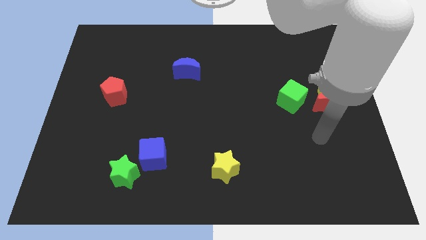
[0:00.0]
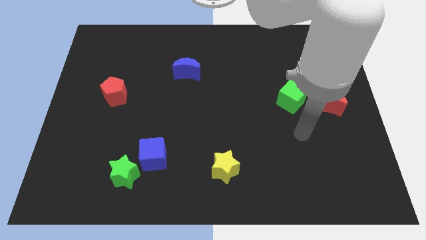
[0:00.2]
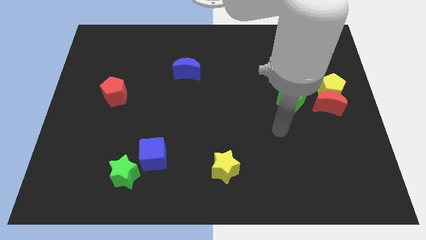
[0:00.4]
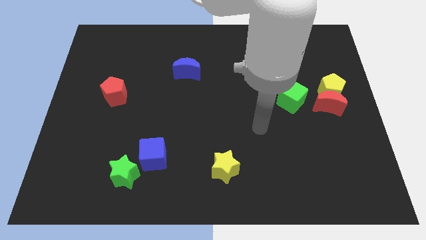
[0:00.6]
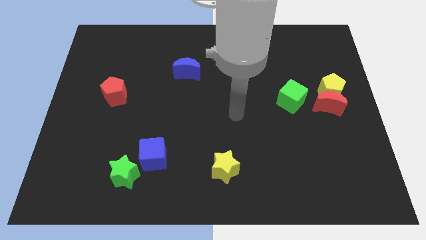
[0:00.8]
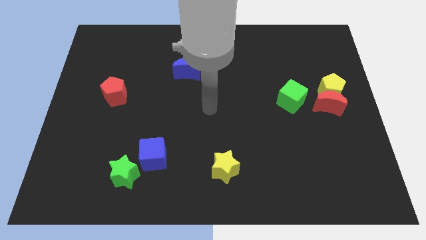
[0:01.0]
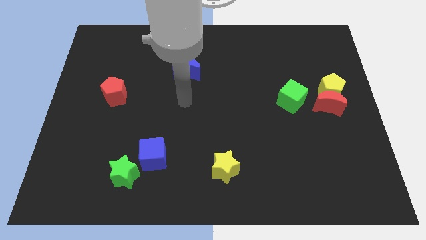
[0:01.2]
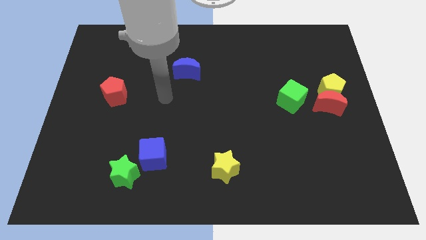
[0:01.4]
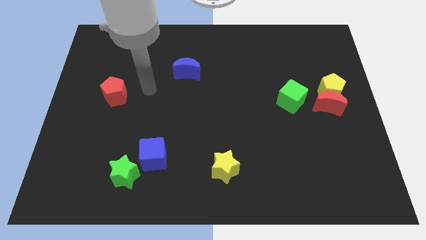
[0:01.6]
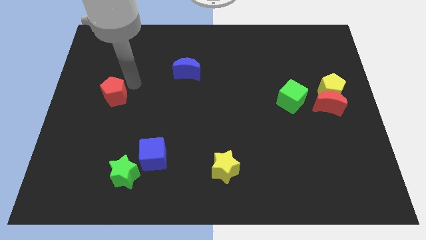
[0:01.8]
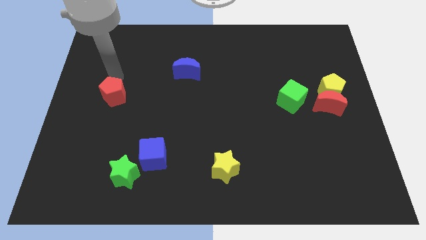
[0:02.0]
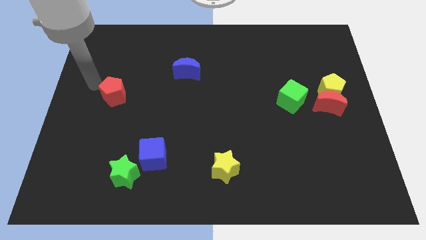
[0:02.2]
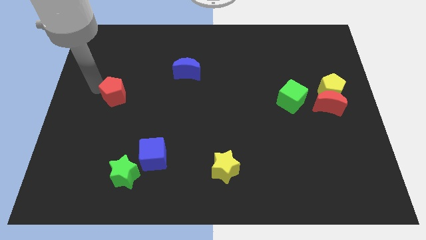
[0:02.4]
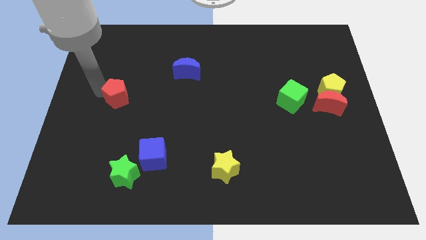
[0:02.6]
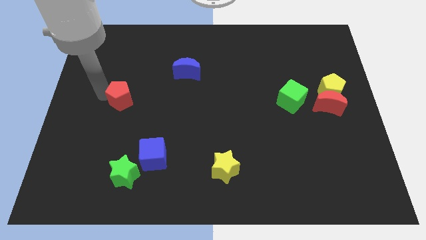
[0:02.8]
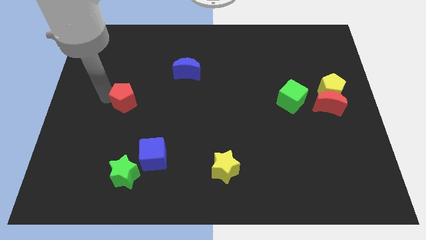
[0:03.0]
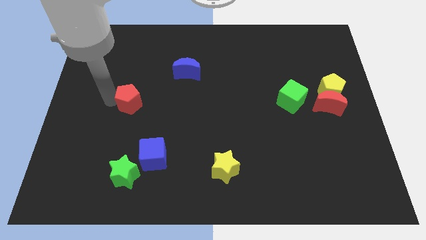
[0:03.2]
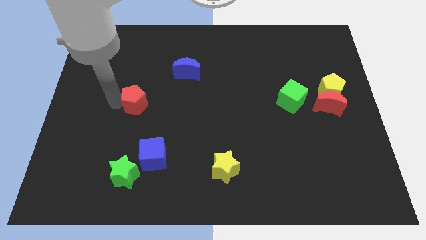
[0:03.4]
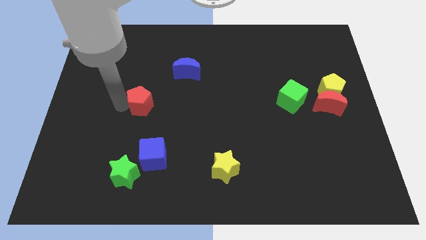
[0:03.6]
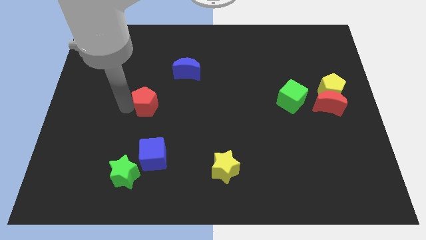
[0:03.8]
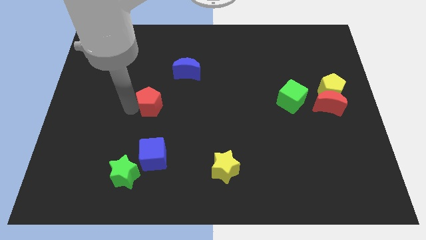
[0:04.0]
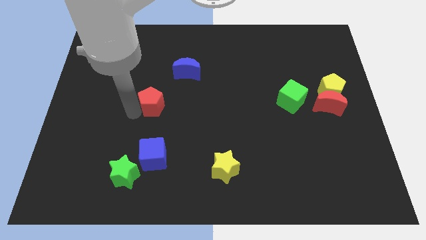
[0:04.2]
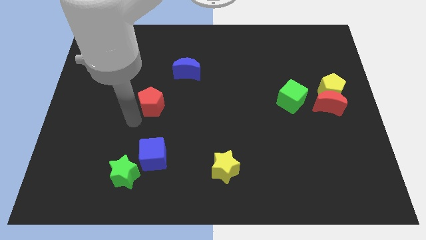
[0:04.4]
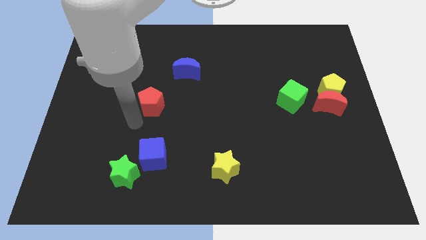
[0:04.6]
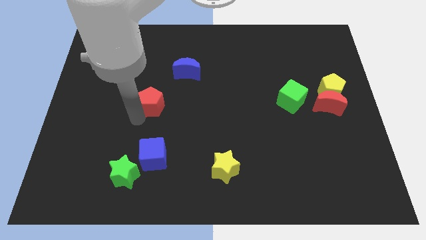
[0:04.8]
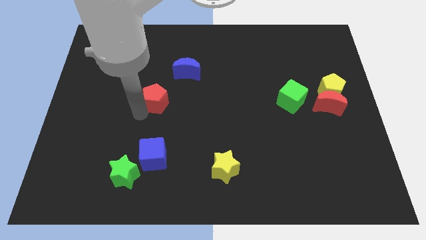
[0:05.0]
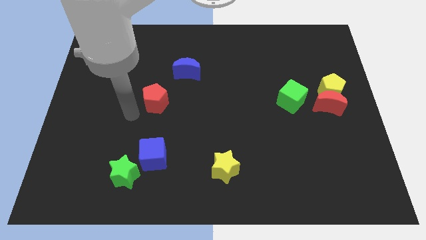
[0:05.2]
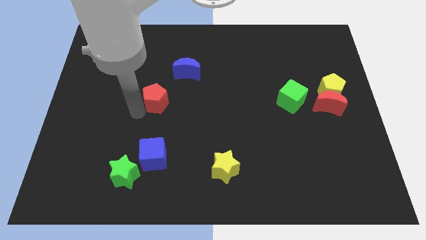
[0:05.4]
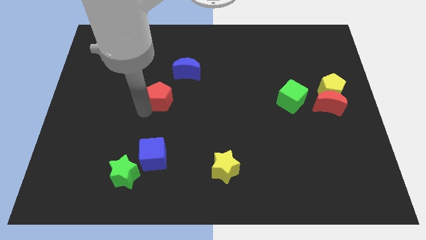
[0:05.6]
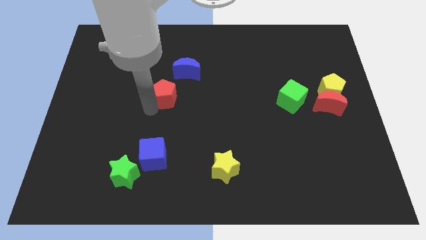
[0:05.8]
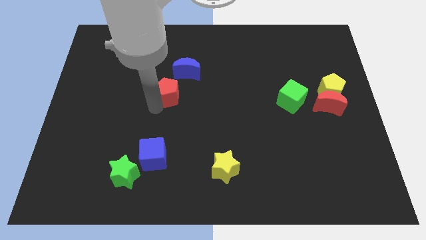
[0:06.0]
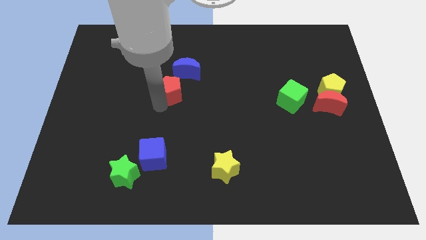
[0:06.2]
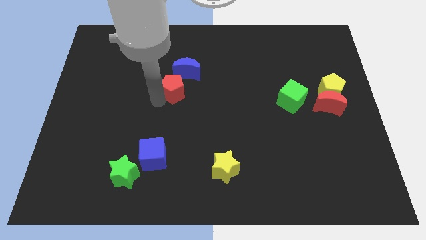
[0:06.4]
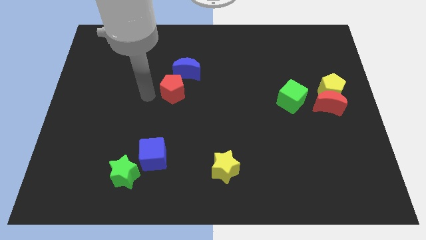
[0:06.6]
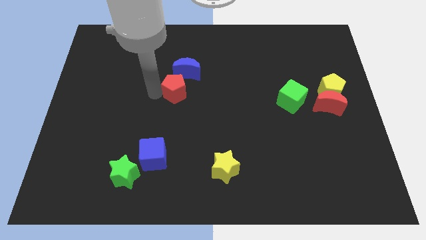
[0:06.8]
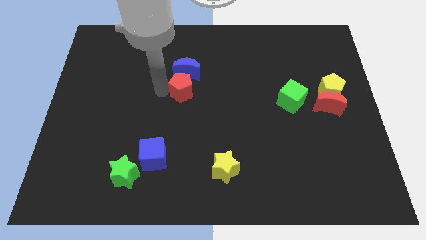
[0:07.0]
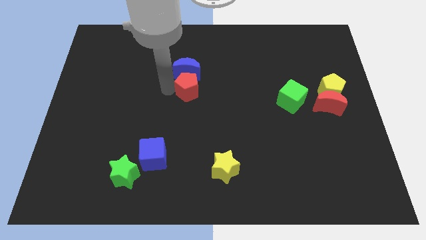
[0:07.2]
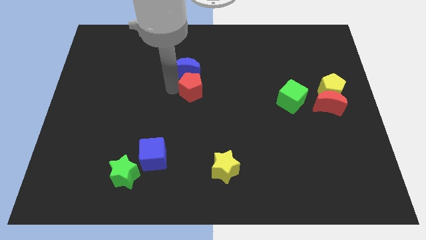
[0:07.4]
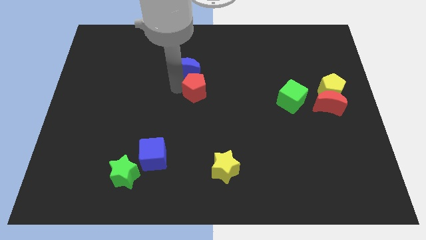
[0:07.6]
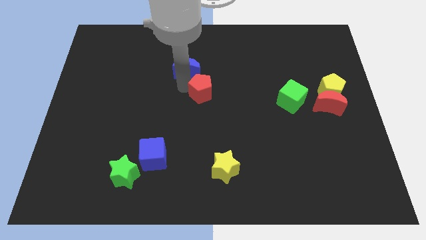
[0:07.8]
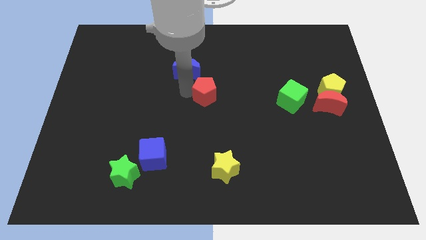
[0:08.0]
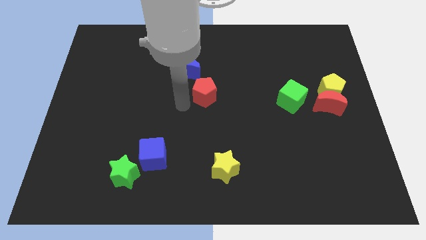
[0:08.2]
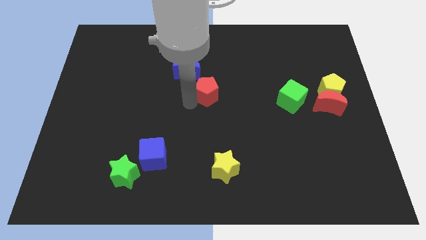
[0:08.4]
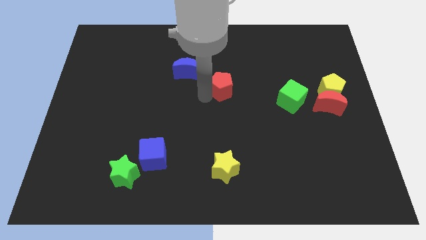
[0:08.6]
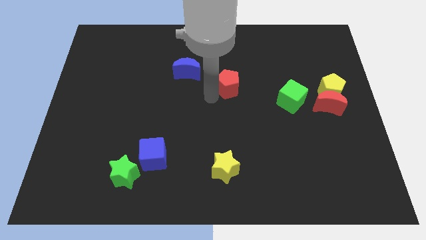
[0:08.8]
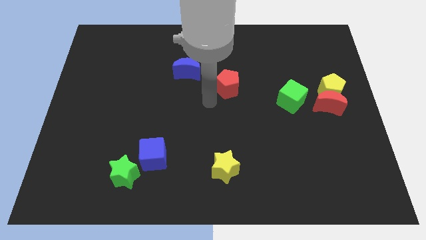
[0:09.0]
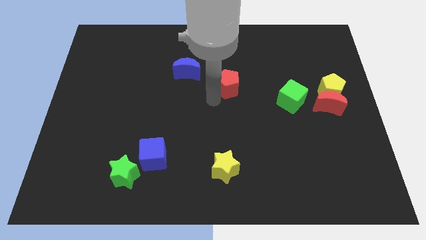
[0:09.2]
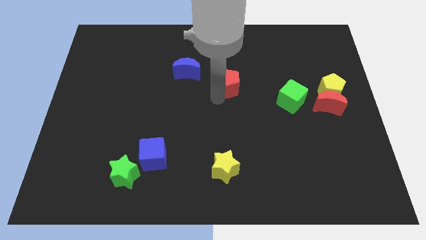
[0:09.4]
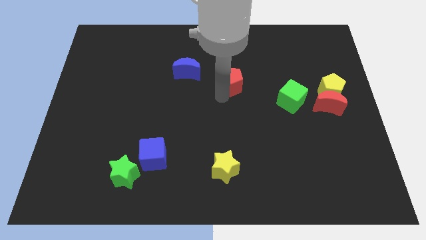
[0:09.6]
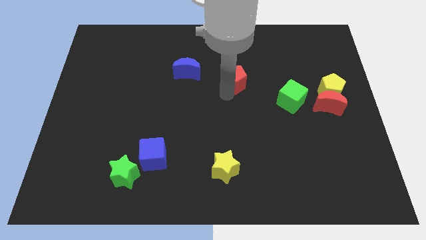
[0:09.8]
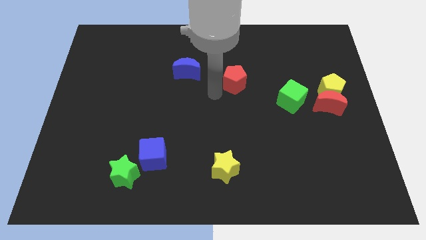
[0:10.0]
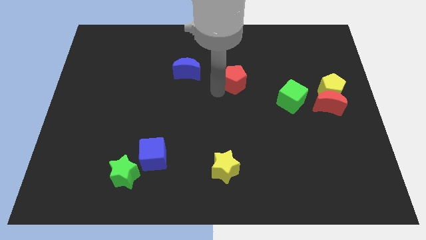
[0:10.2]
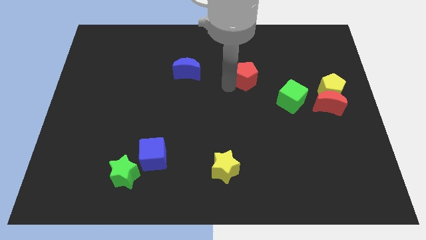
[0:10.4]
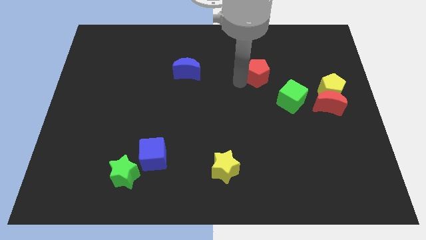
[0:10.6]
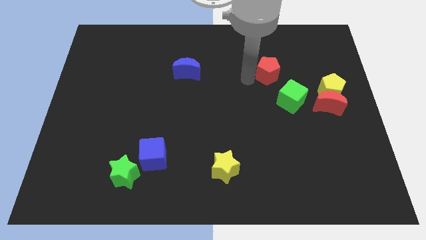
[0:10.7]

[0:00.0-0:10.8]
slide the red pentagon to the top side of the green cube

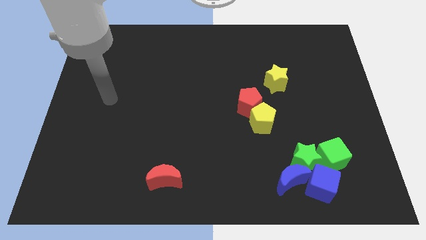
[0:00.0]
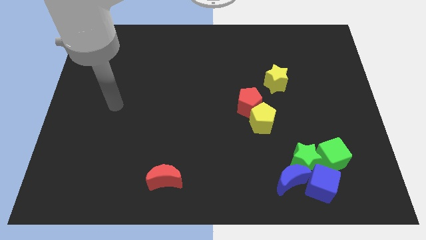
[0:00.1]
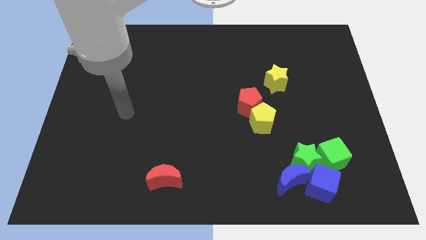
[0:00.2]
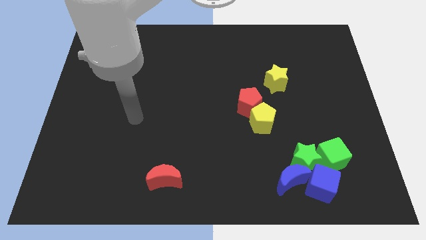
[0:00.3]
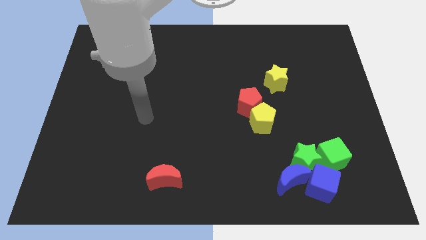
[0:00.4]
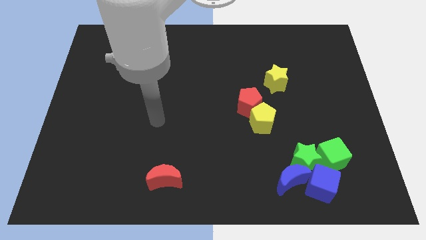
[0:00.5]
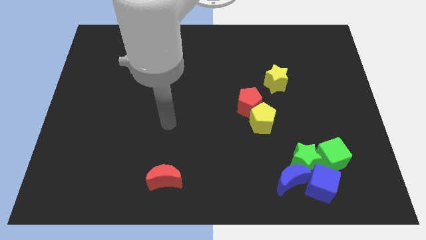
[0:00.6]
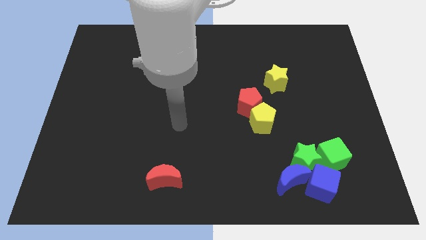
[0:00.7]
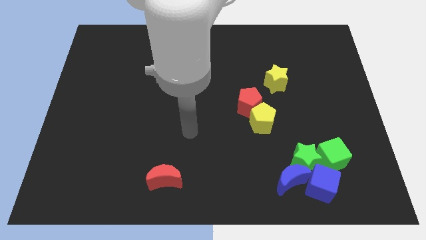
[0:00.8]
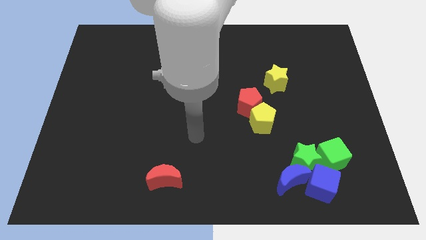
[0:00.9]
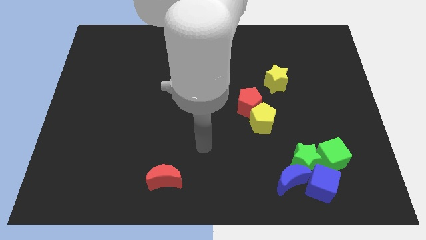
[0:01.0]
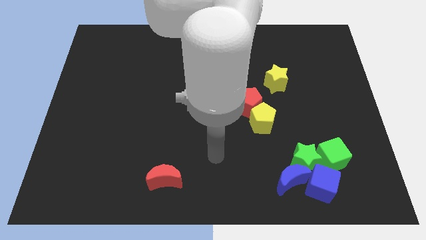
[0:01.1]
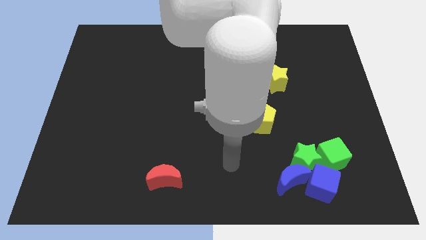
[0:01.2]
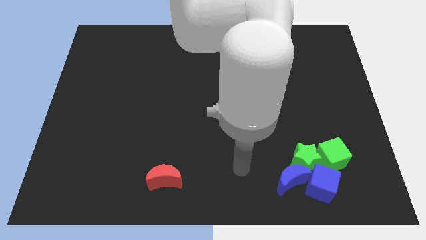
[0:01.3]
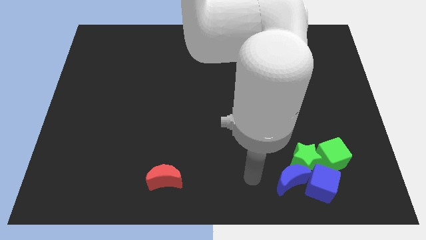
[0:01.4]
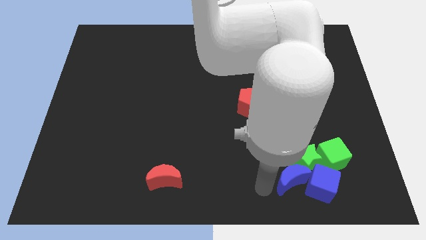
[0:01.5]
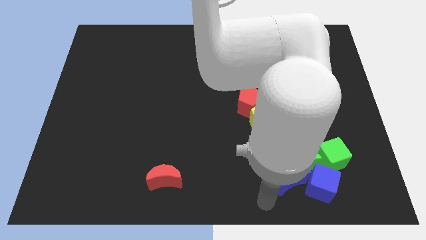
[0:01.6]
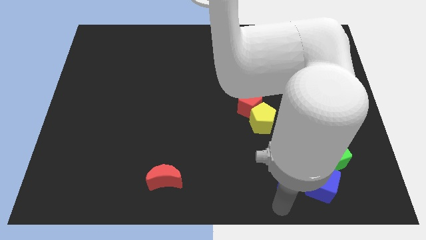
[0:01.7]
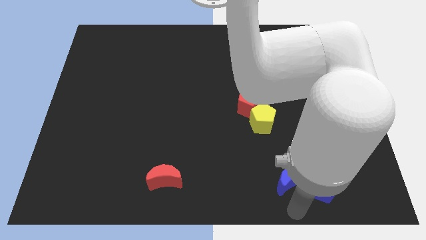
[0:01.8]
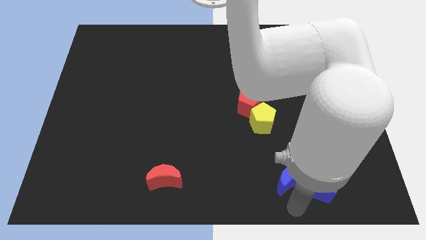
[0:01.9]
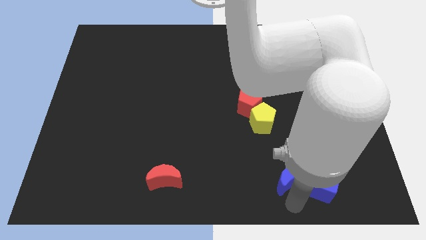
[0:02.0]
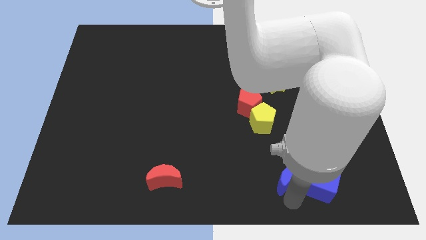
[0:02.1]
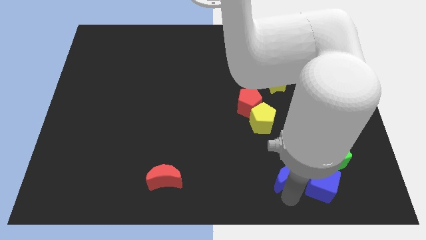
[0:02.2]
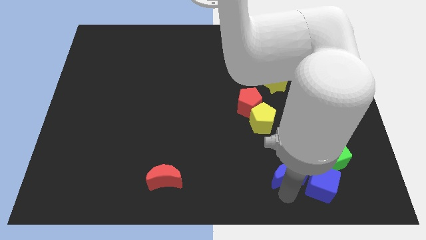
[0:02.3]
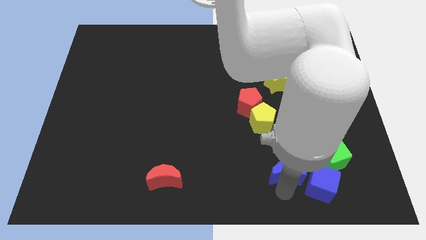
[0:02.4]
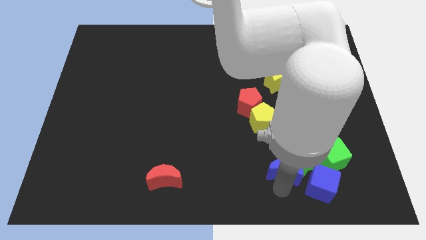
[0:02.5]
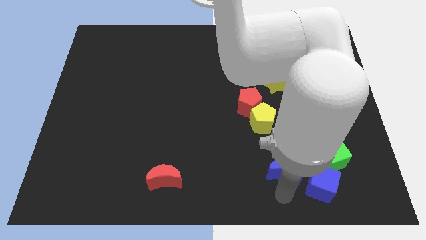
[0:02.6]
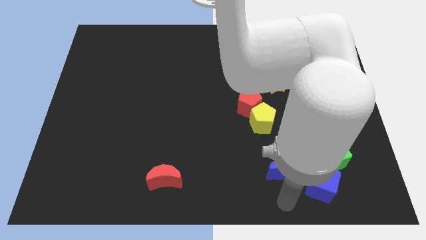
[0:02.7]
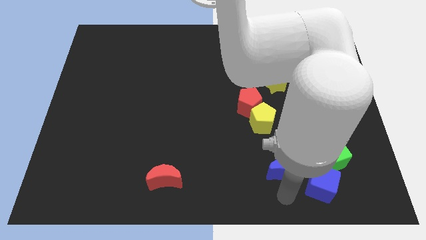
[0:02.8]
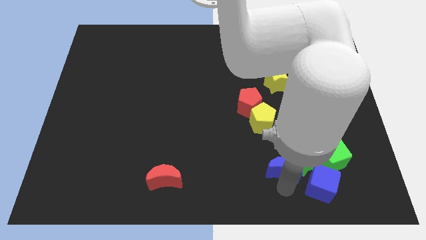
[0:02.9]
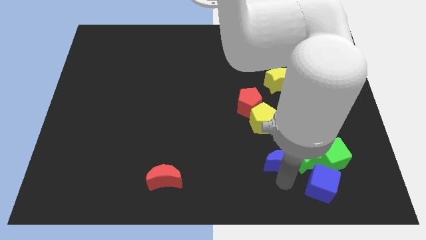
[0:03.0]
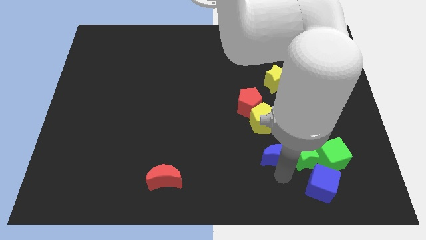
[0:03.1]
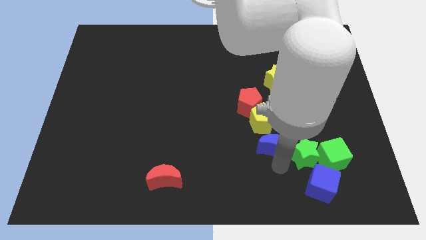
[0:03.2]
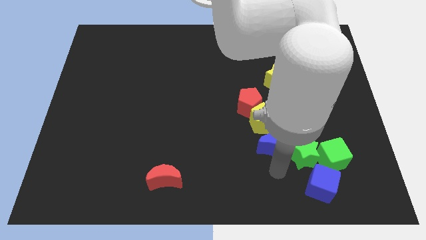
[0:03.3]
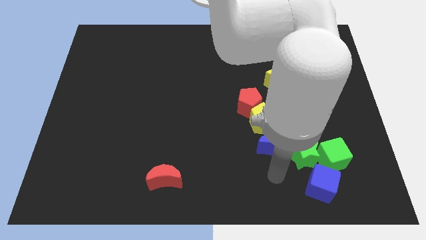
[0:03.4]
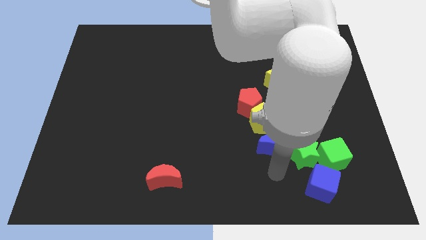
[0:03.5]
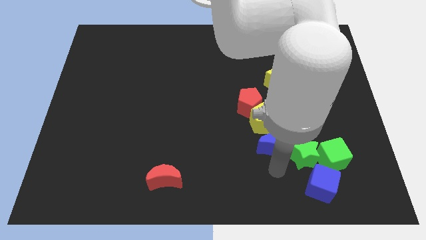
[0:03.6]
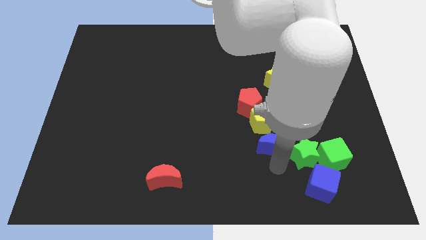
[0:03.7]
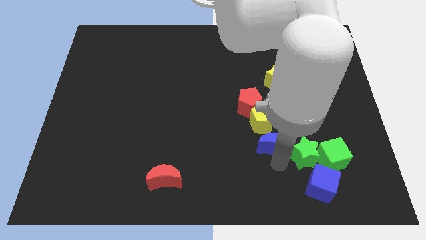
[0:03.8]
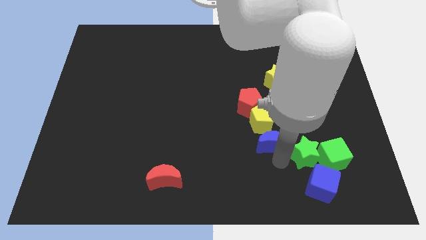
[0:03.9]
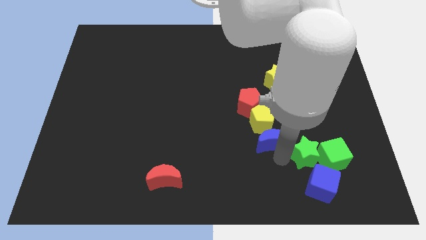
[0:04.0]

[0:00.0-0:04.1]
put the blue moon diagonally down and to the right of the red pentagon
